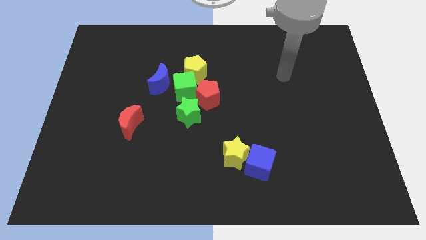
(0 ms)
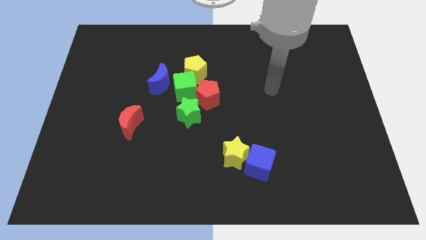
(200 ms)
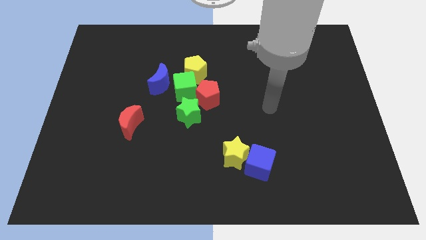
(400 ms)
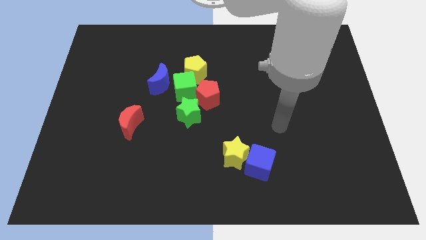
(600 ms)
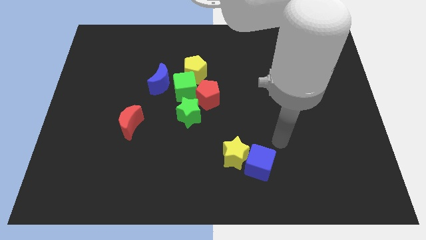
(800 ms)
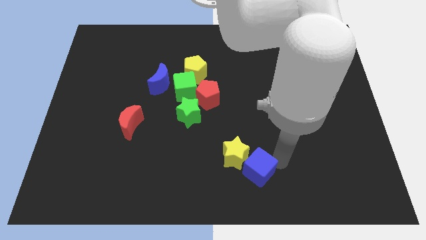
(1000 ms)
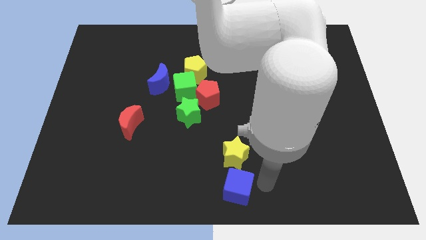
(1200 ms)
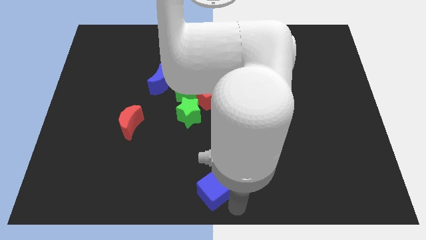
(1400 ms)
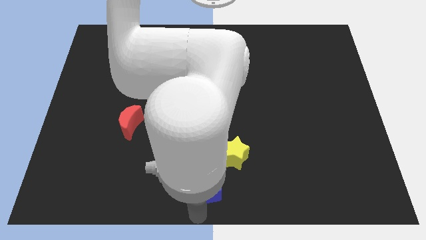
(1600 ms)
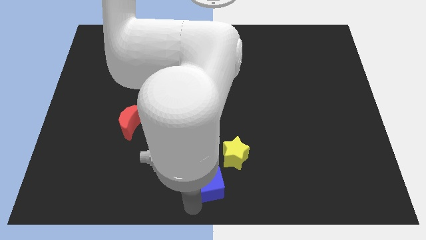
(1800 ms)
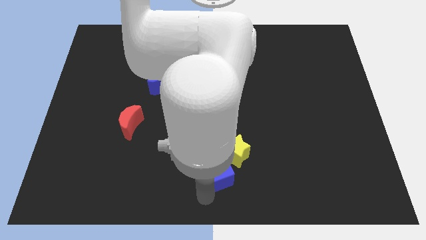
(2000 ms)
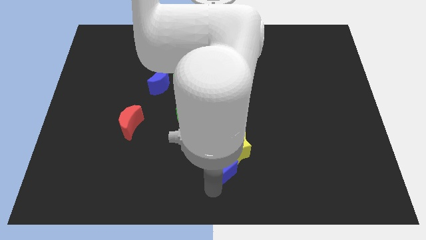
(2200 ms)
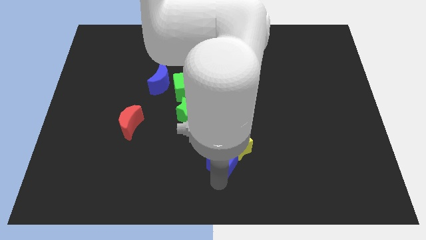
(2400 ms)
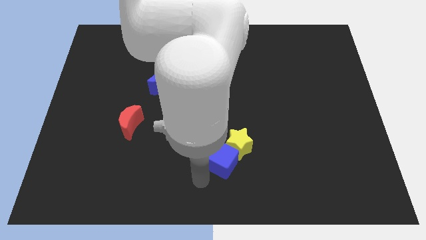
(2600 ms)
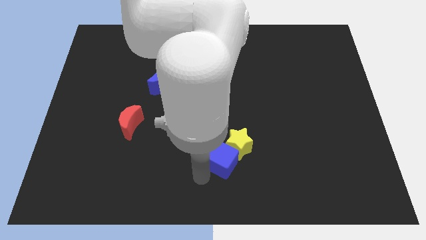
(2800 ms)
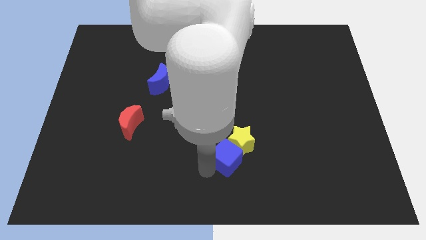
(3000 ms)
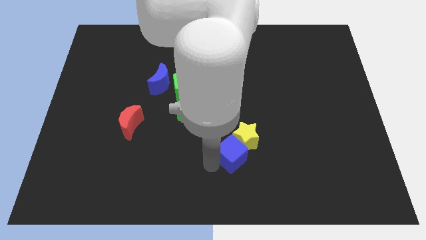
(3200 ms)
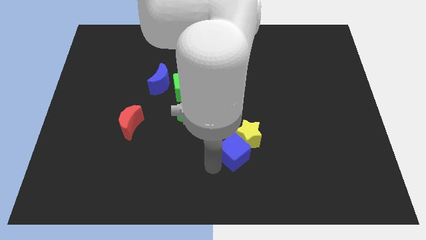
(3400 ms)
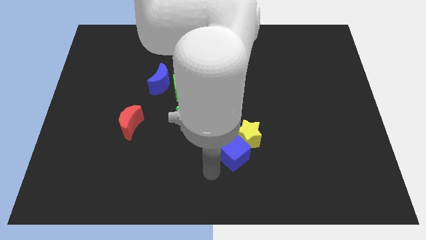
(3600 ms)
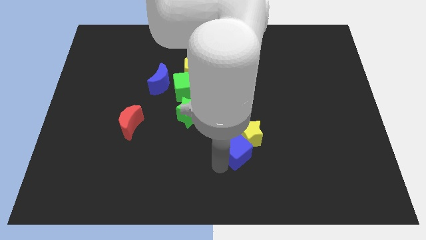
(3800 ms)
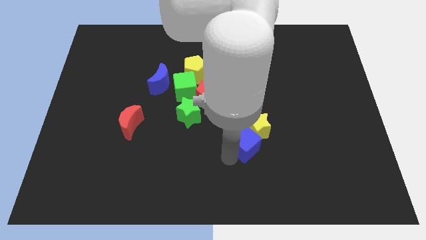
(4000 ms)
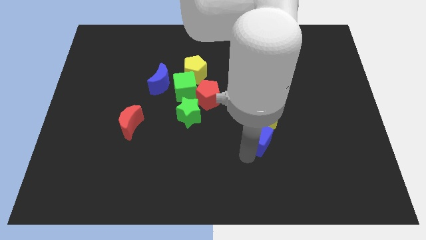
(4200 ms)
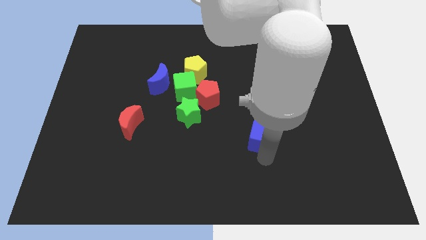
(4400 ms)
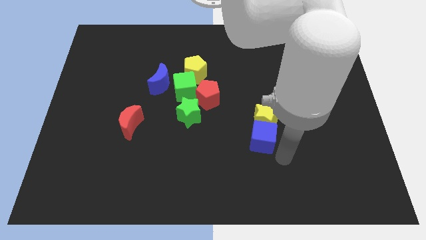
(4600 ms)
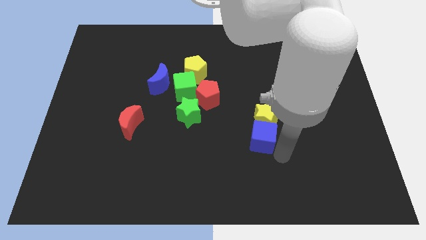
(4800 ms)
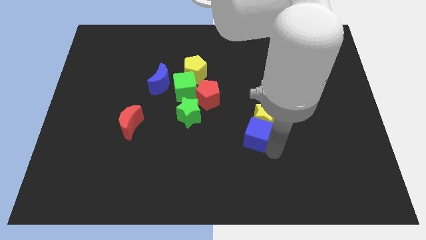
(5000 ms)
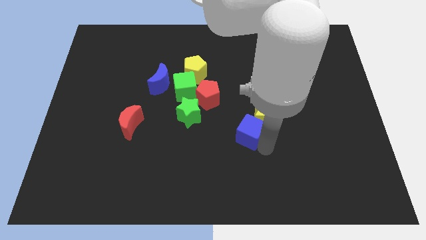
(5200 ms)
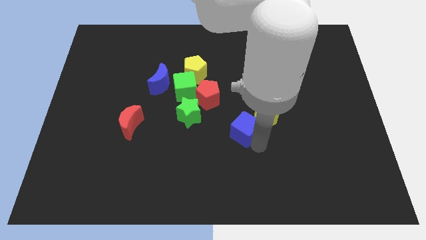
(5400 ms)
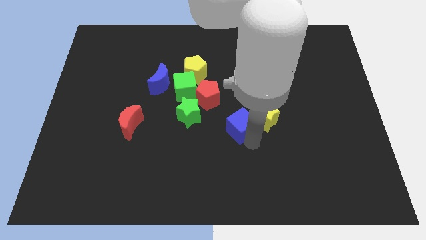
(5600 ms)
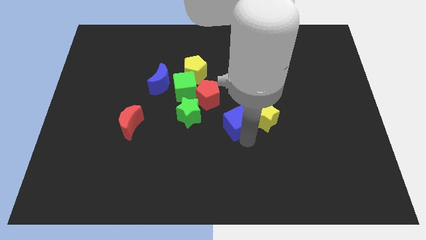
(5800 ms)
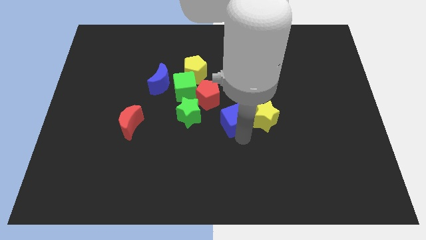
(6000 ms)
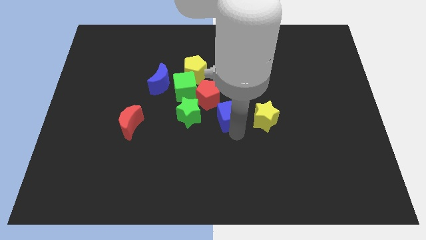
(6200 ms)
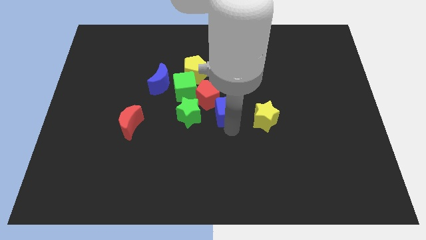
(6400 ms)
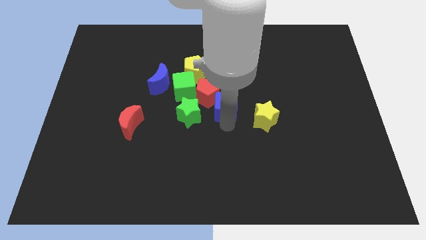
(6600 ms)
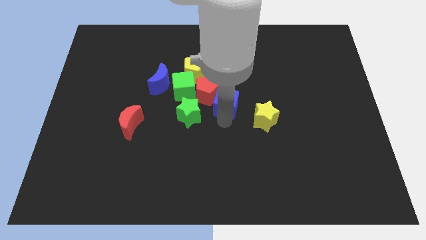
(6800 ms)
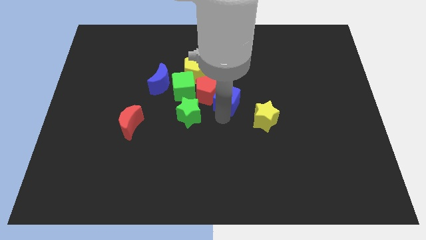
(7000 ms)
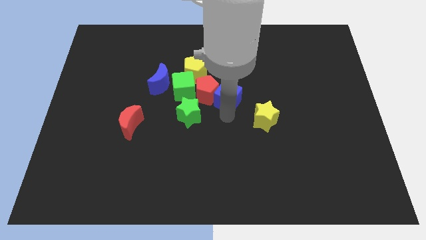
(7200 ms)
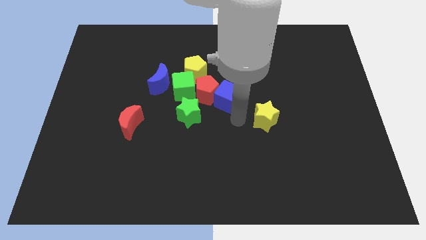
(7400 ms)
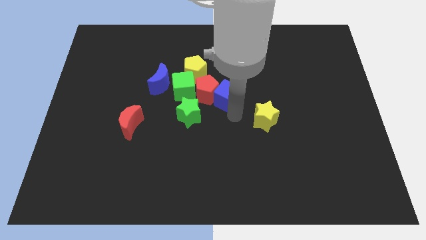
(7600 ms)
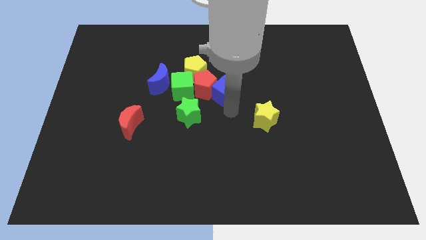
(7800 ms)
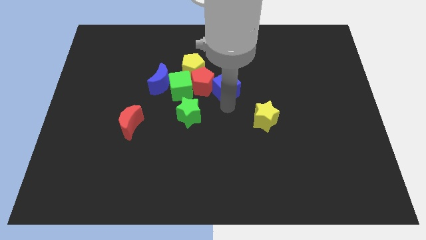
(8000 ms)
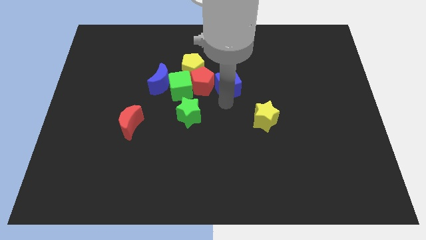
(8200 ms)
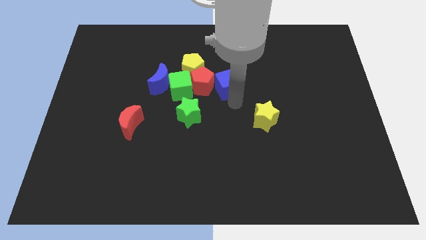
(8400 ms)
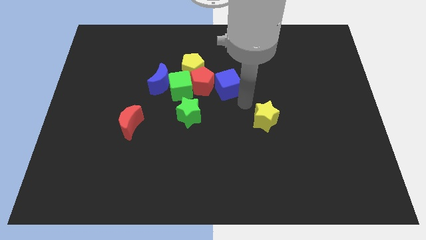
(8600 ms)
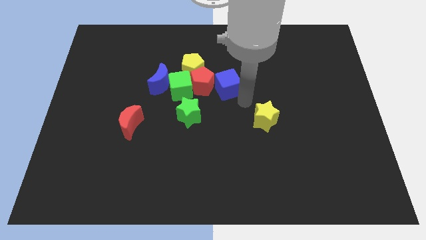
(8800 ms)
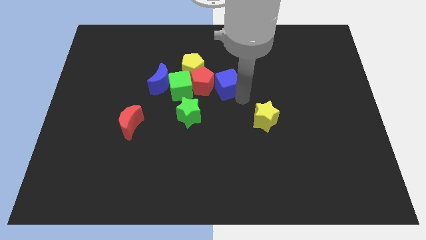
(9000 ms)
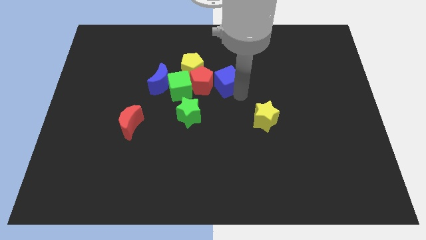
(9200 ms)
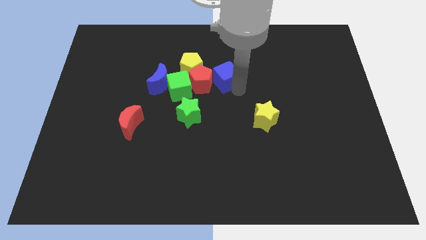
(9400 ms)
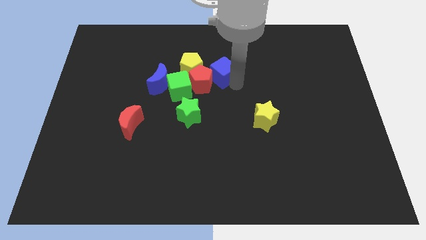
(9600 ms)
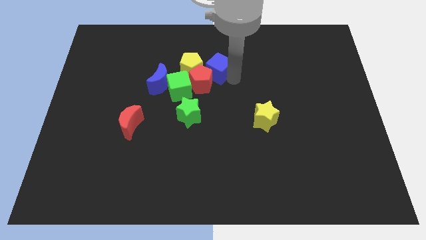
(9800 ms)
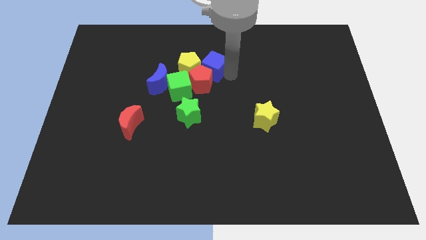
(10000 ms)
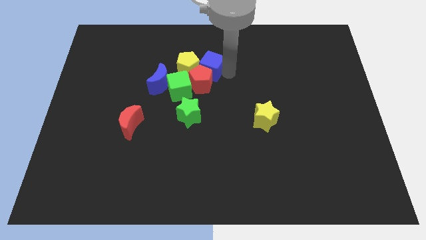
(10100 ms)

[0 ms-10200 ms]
put the blue cube to the yellow pentagon

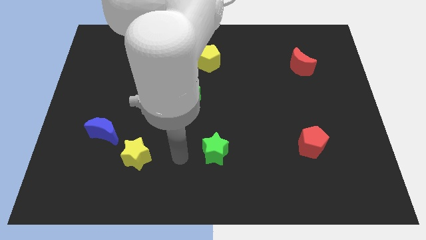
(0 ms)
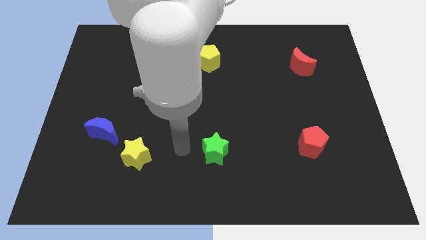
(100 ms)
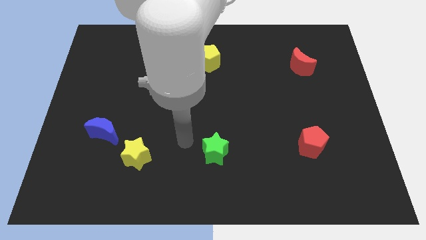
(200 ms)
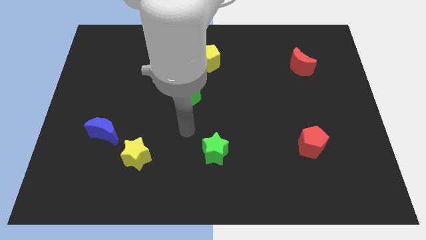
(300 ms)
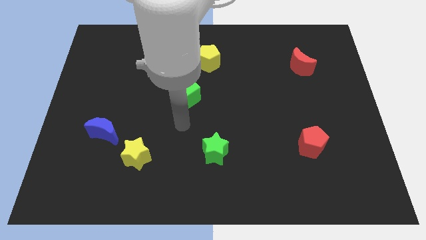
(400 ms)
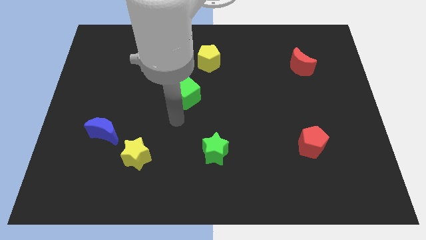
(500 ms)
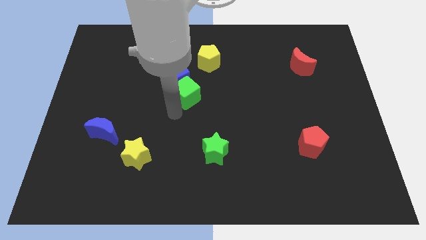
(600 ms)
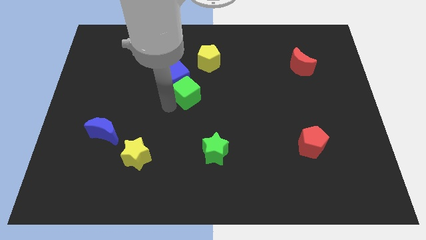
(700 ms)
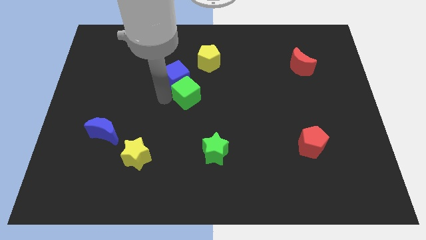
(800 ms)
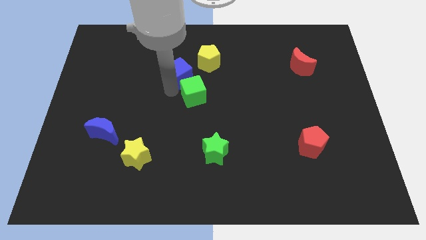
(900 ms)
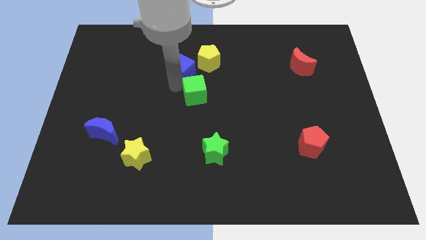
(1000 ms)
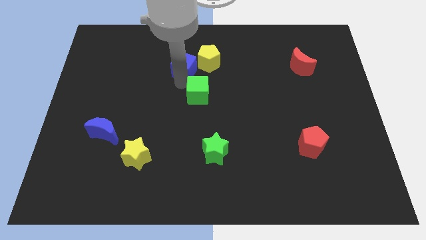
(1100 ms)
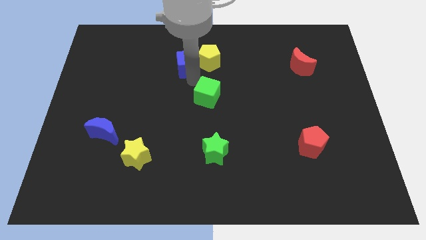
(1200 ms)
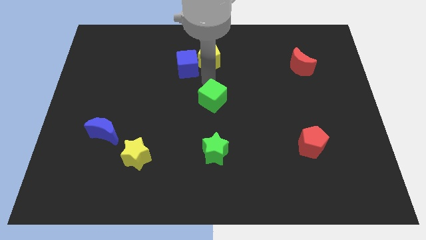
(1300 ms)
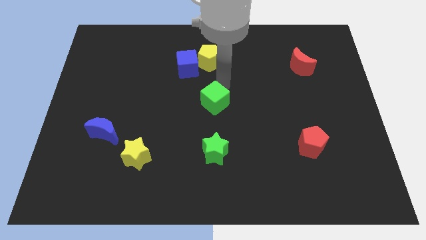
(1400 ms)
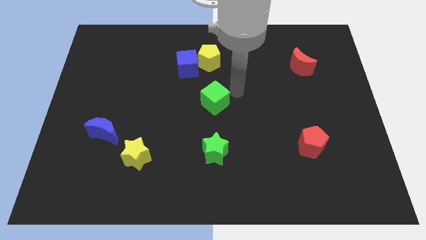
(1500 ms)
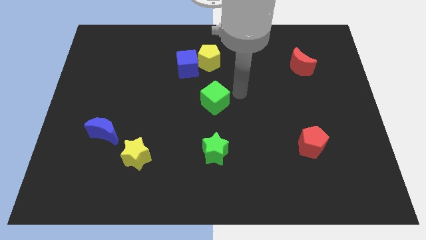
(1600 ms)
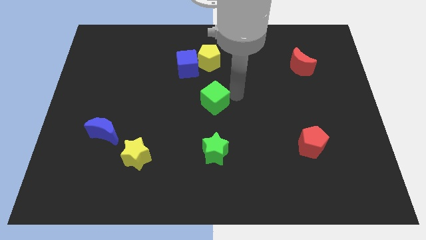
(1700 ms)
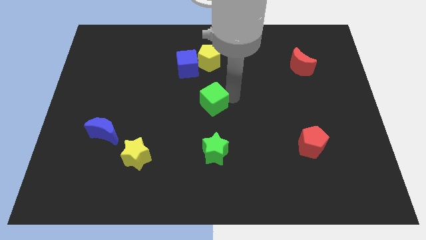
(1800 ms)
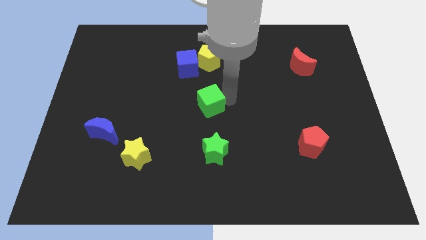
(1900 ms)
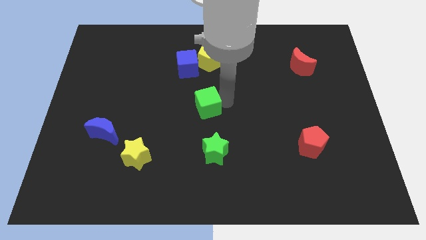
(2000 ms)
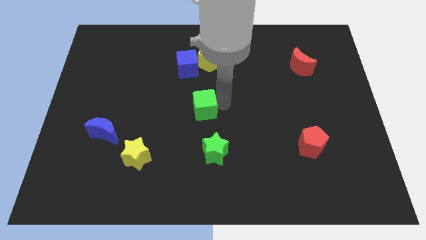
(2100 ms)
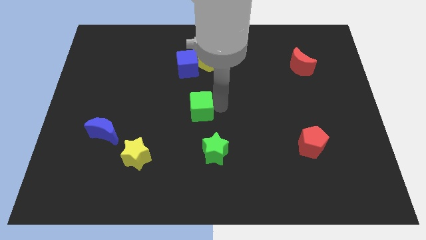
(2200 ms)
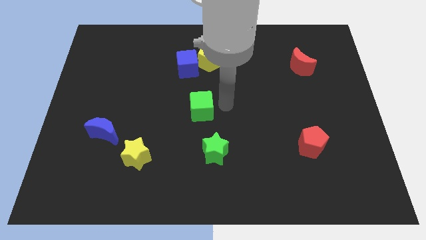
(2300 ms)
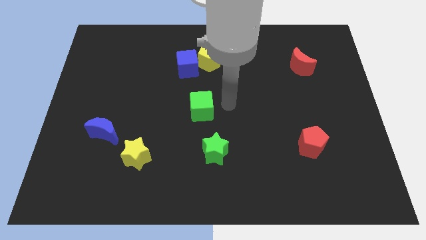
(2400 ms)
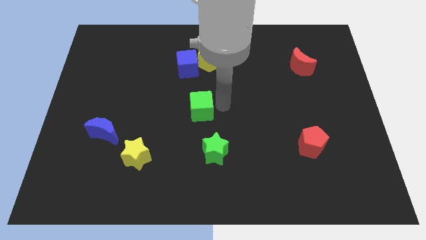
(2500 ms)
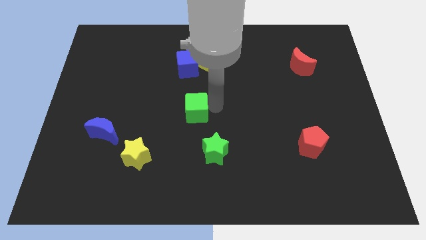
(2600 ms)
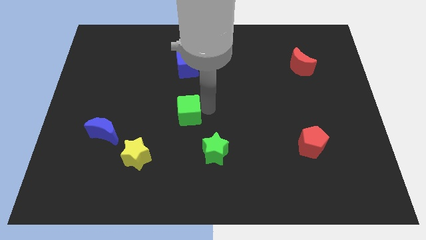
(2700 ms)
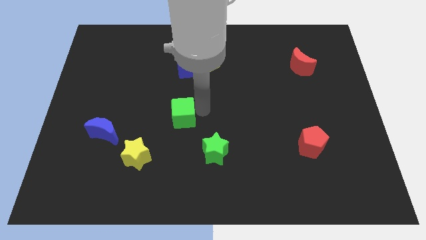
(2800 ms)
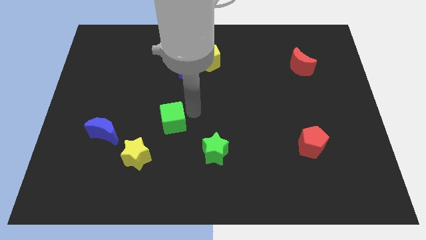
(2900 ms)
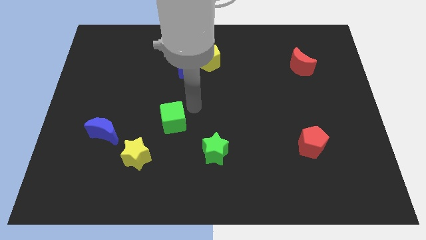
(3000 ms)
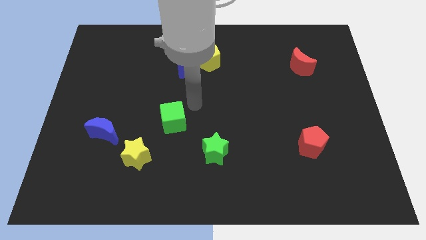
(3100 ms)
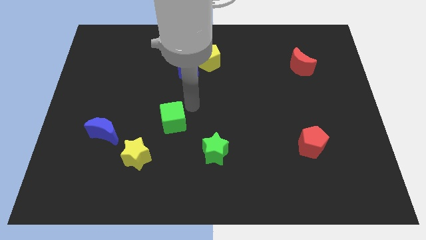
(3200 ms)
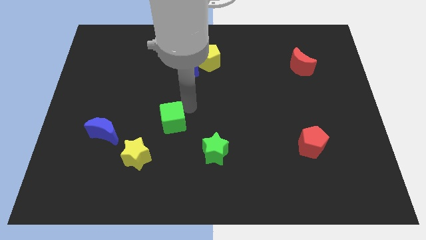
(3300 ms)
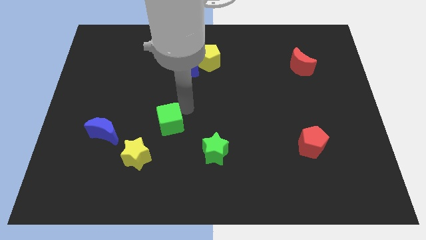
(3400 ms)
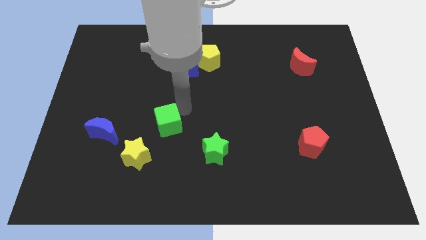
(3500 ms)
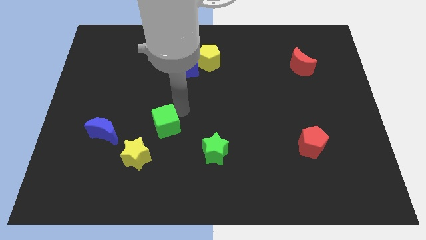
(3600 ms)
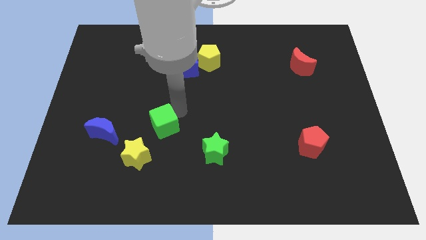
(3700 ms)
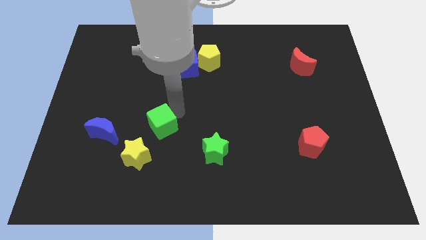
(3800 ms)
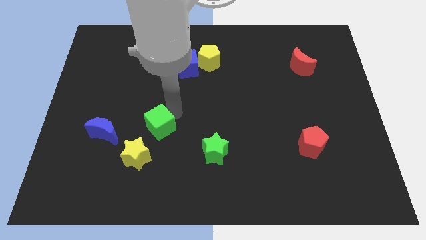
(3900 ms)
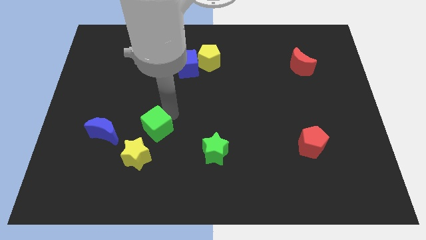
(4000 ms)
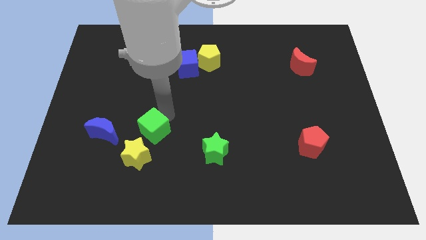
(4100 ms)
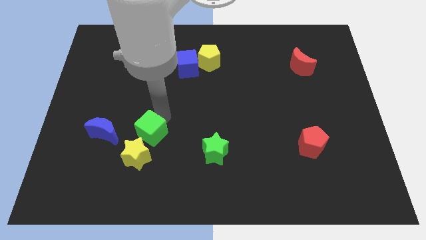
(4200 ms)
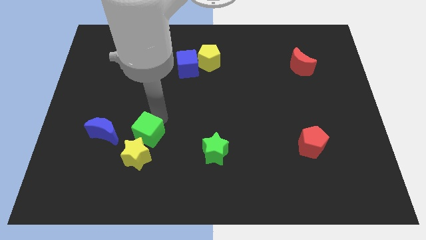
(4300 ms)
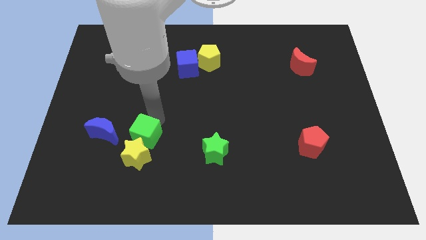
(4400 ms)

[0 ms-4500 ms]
put the green cube next to the yellow star
